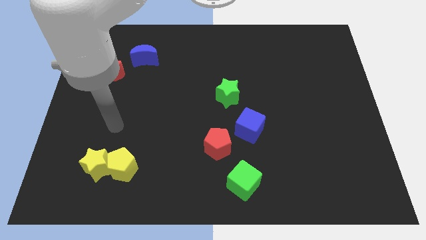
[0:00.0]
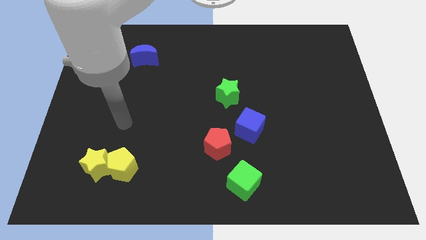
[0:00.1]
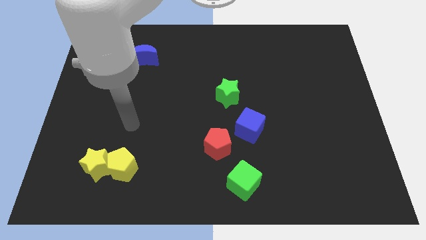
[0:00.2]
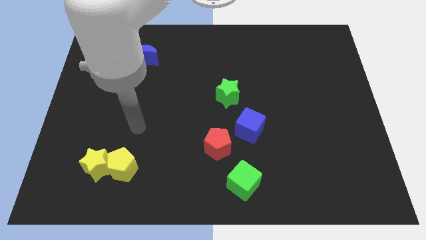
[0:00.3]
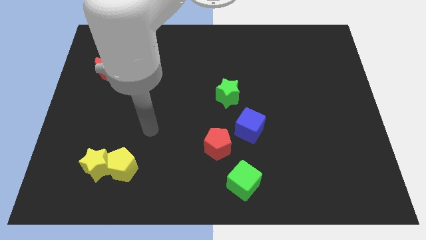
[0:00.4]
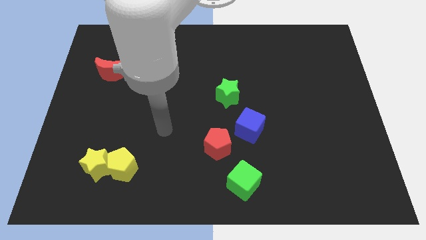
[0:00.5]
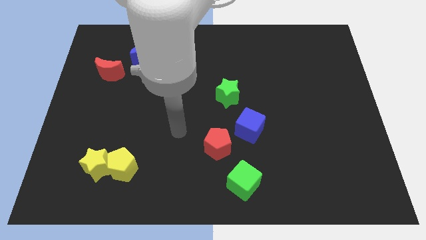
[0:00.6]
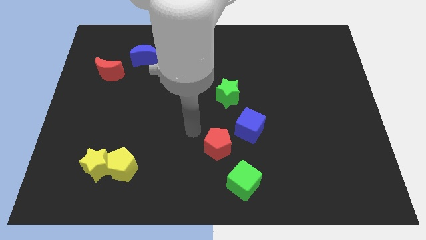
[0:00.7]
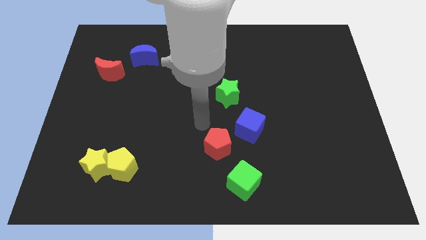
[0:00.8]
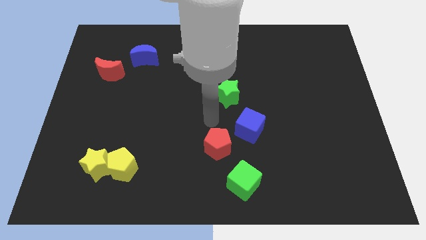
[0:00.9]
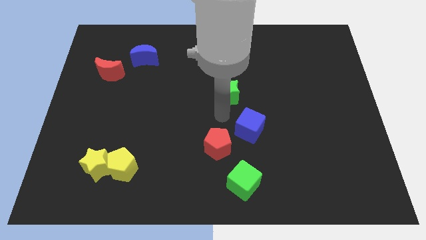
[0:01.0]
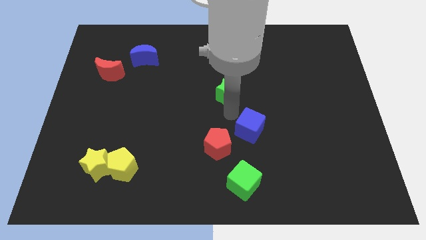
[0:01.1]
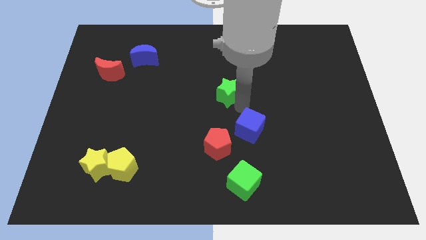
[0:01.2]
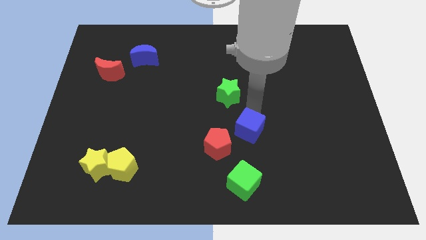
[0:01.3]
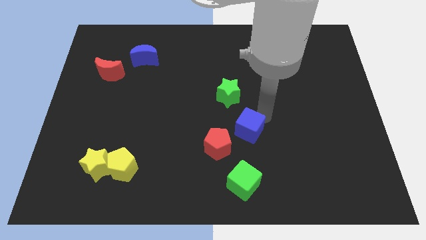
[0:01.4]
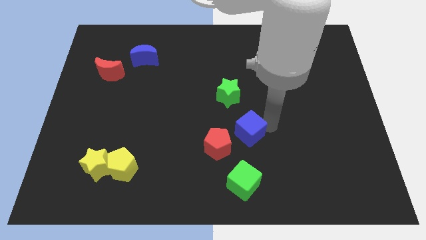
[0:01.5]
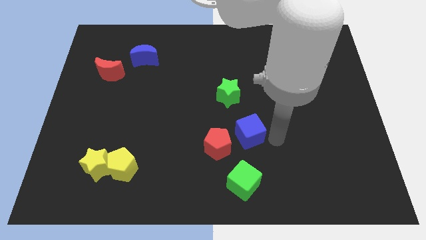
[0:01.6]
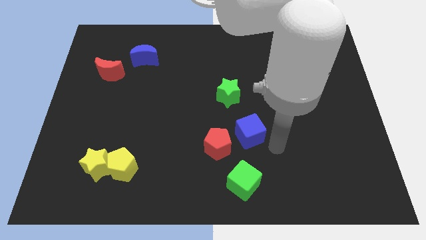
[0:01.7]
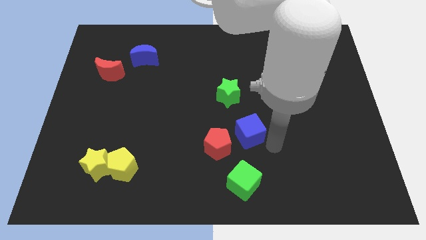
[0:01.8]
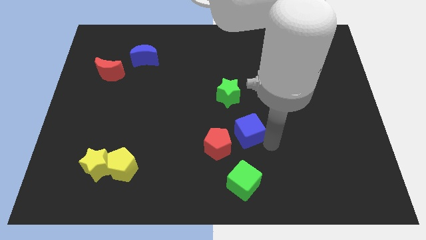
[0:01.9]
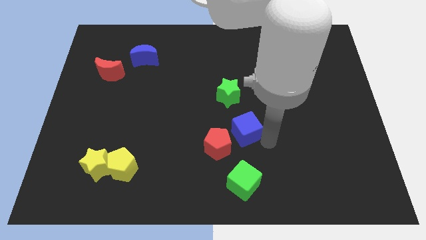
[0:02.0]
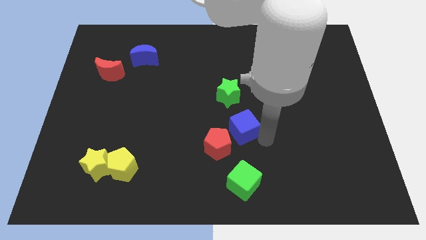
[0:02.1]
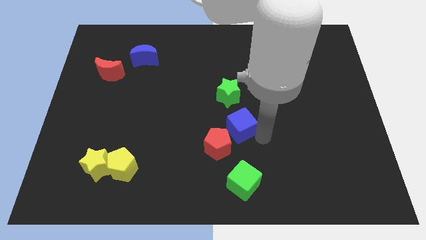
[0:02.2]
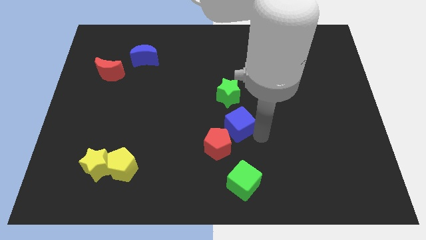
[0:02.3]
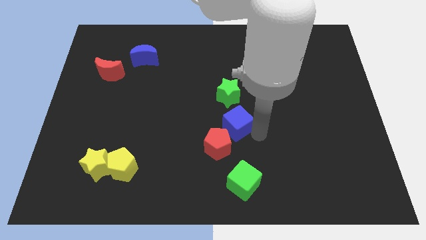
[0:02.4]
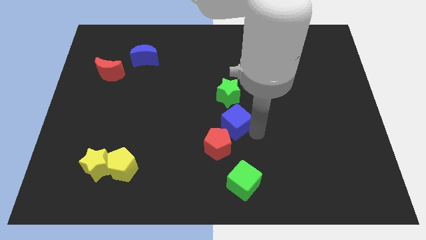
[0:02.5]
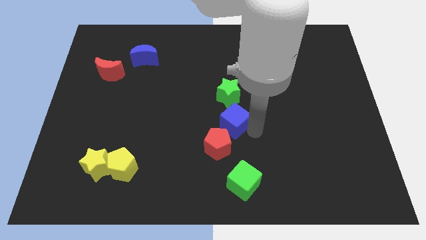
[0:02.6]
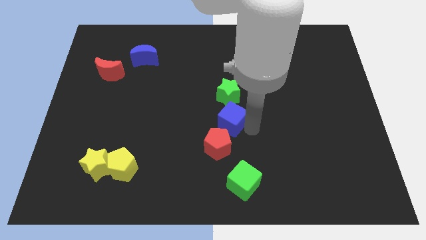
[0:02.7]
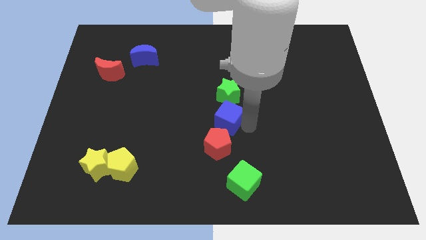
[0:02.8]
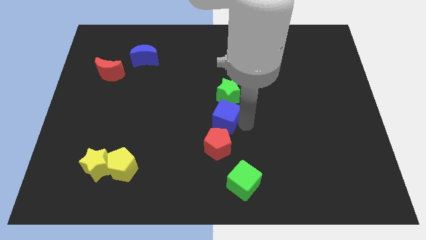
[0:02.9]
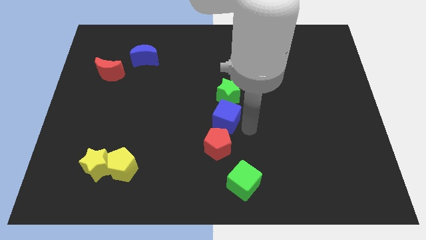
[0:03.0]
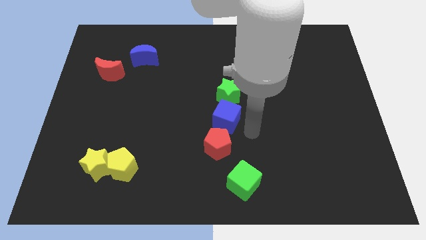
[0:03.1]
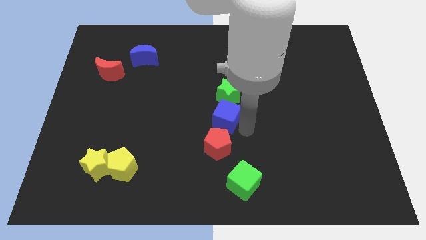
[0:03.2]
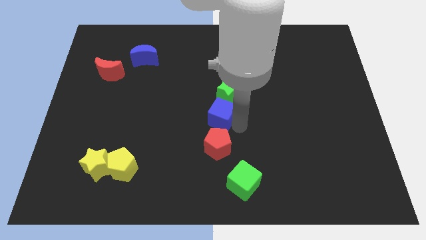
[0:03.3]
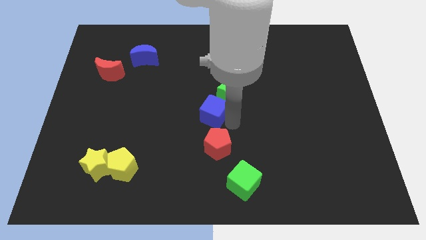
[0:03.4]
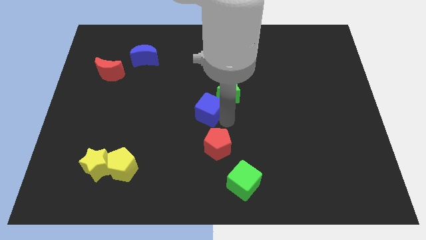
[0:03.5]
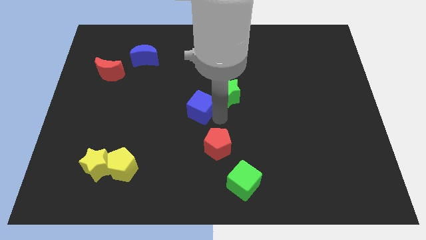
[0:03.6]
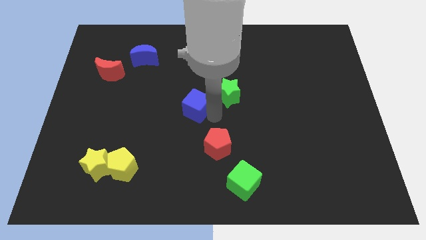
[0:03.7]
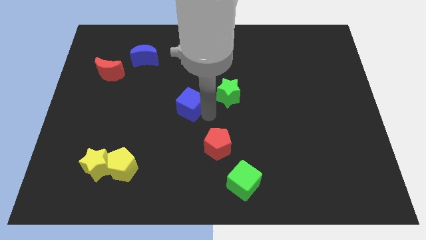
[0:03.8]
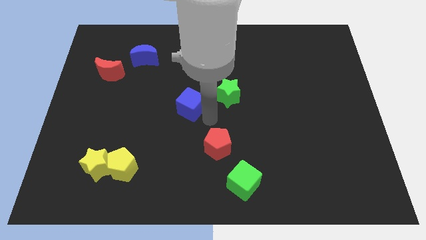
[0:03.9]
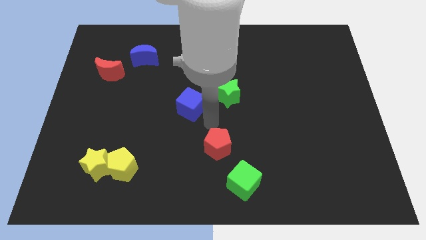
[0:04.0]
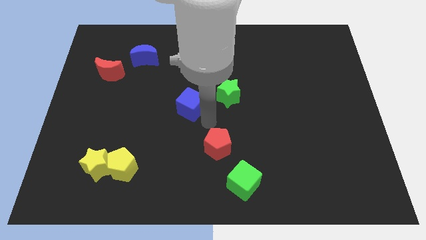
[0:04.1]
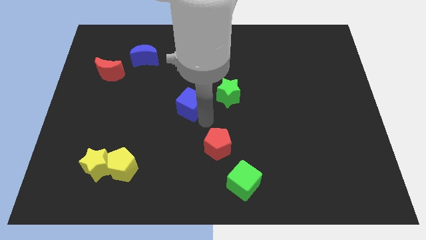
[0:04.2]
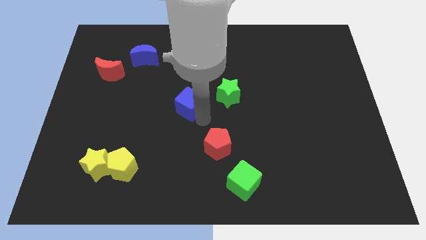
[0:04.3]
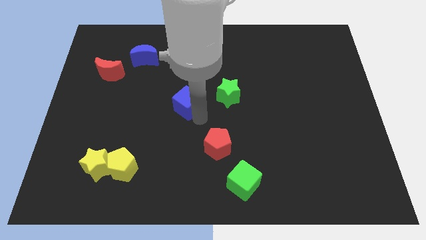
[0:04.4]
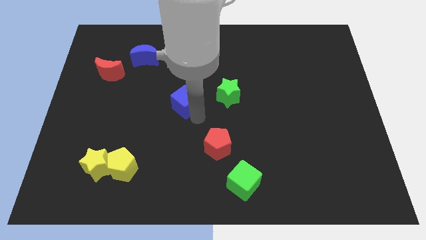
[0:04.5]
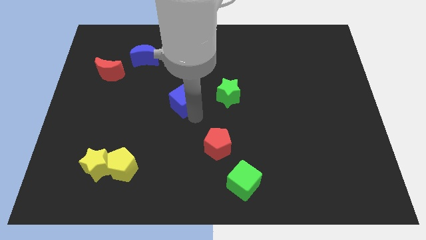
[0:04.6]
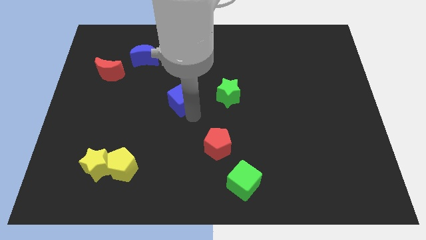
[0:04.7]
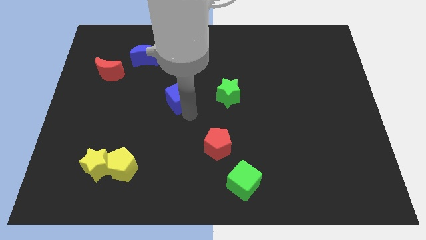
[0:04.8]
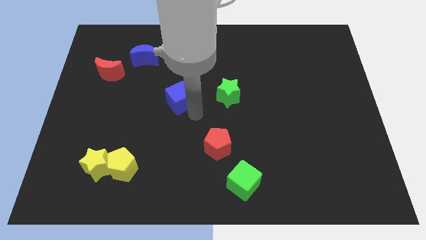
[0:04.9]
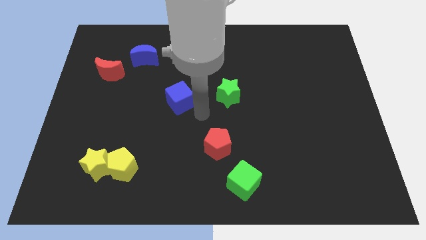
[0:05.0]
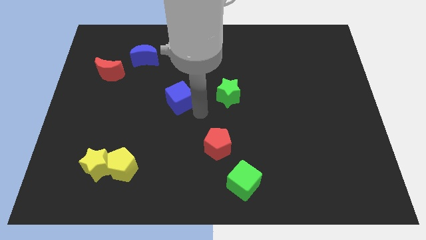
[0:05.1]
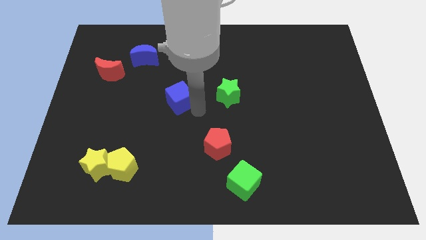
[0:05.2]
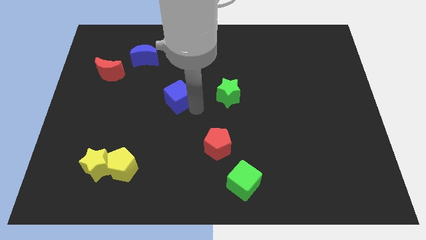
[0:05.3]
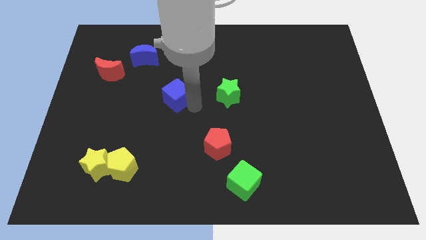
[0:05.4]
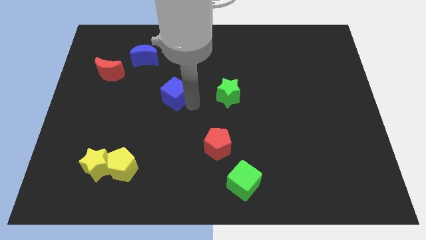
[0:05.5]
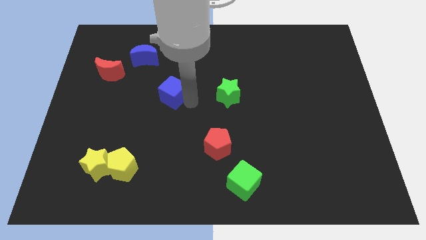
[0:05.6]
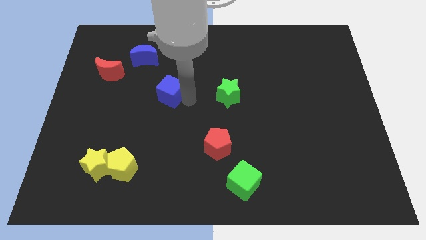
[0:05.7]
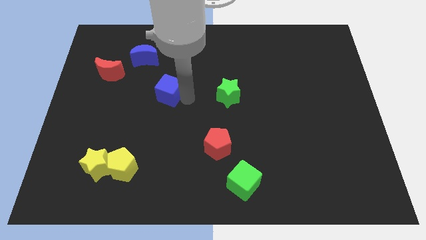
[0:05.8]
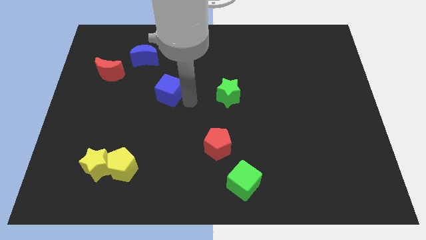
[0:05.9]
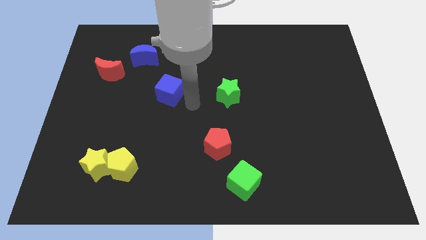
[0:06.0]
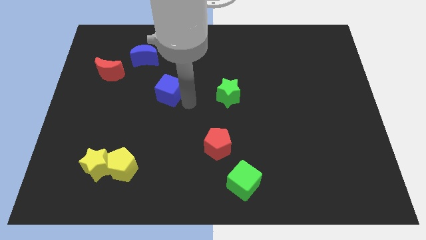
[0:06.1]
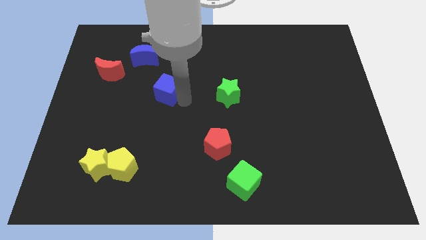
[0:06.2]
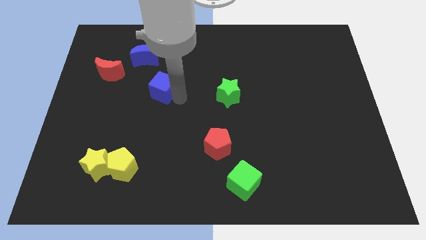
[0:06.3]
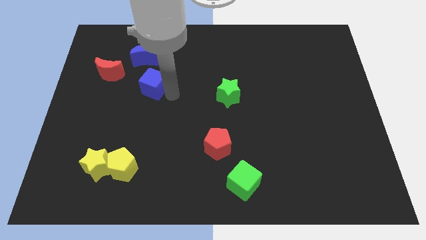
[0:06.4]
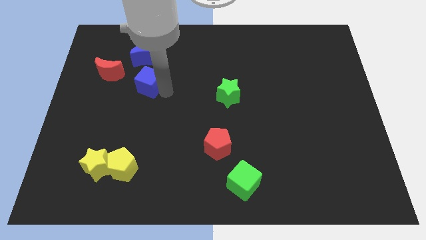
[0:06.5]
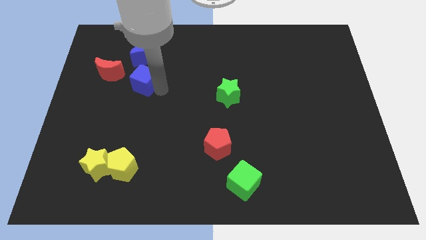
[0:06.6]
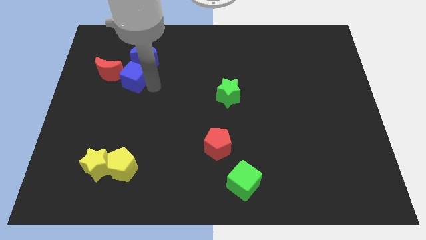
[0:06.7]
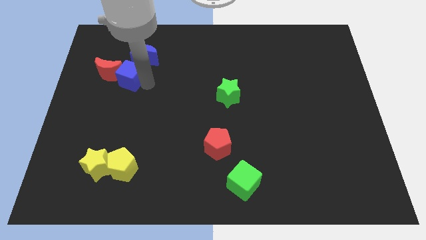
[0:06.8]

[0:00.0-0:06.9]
slide the blue cube close to the red moon

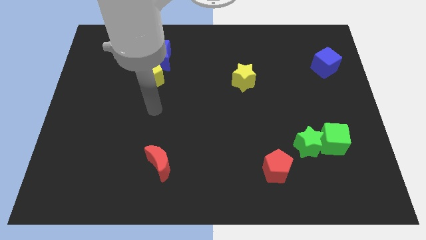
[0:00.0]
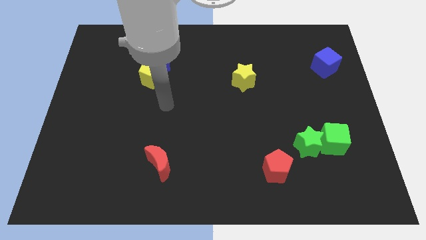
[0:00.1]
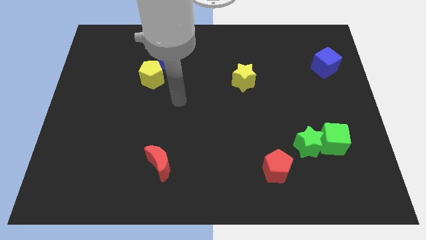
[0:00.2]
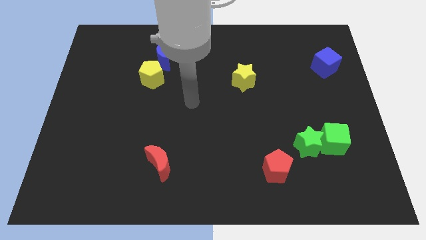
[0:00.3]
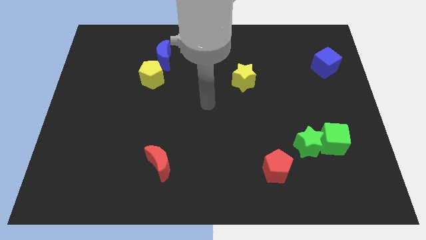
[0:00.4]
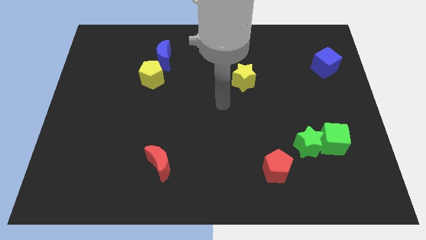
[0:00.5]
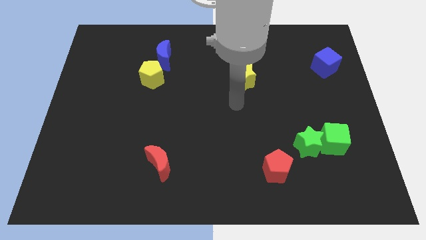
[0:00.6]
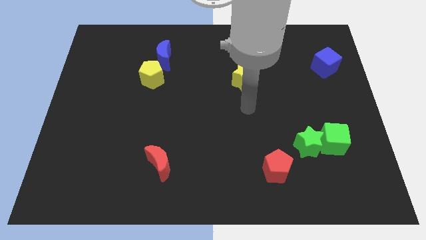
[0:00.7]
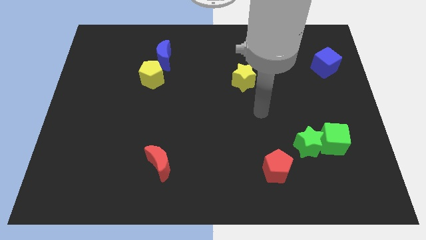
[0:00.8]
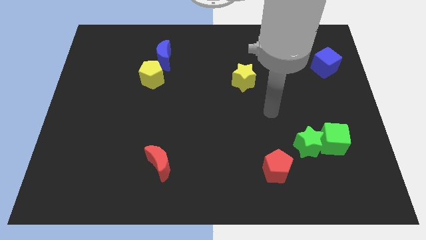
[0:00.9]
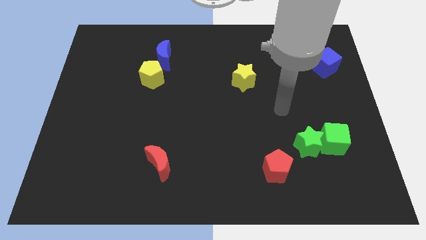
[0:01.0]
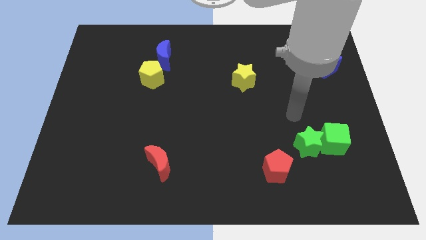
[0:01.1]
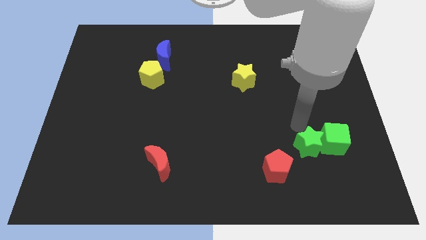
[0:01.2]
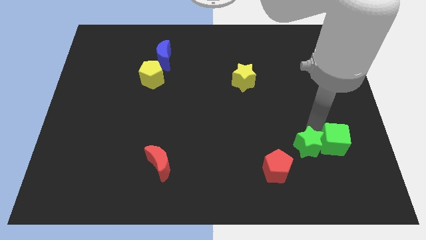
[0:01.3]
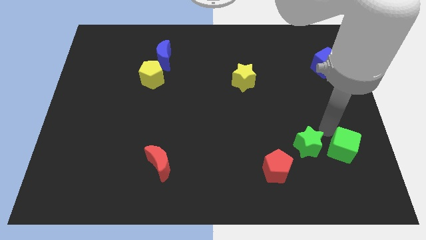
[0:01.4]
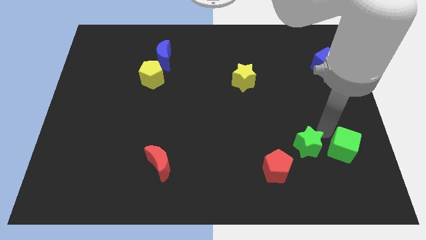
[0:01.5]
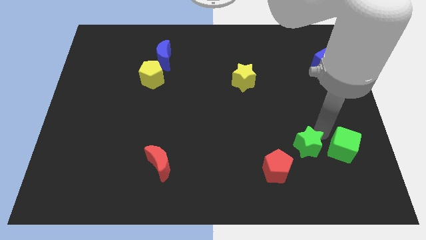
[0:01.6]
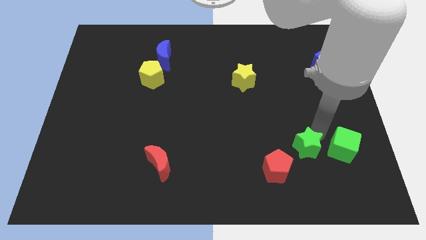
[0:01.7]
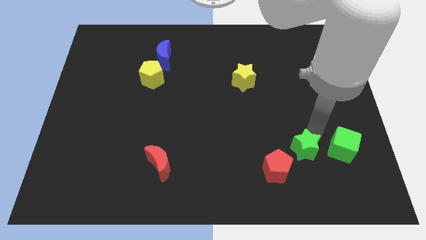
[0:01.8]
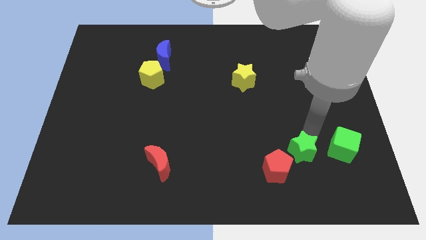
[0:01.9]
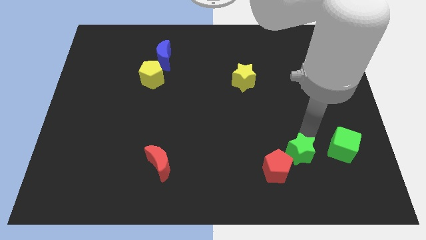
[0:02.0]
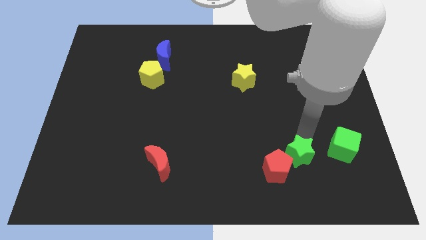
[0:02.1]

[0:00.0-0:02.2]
put the green star towards the red pentagon
